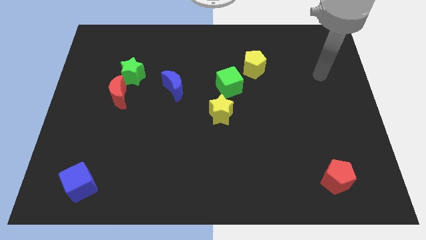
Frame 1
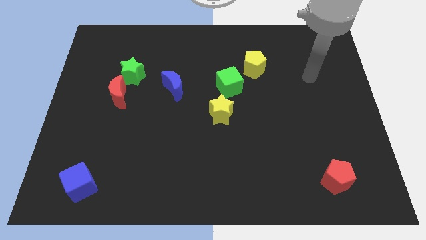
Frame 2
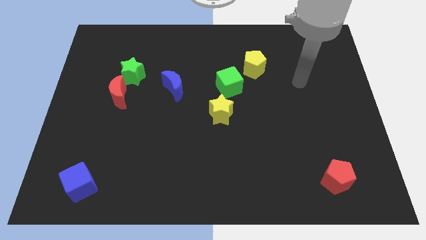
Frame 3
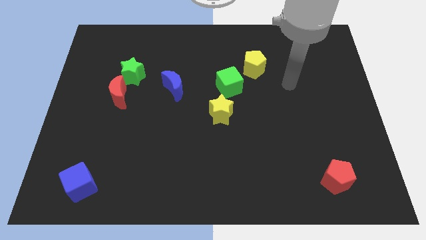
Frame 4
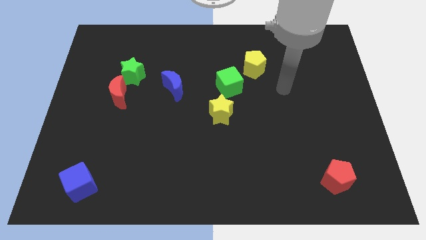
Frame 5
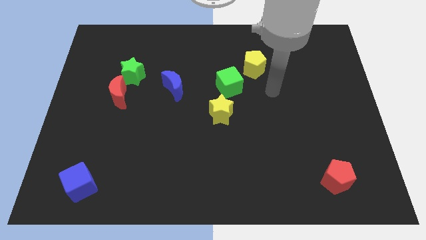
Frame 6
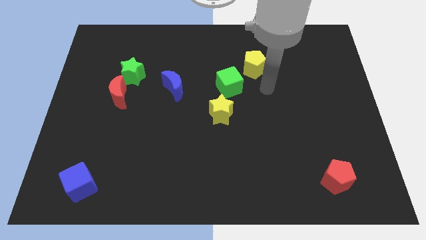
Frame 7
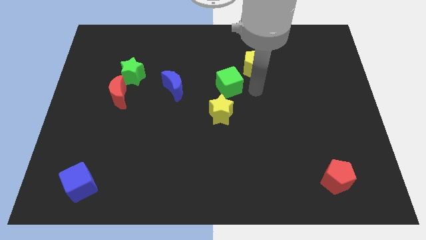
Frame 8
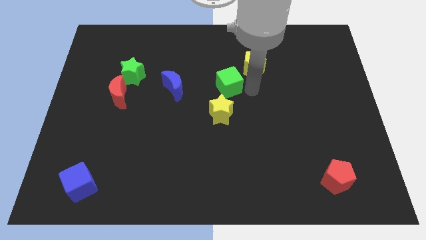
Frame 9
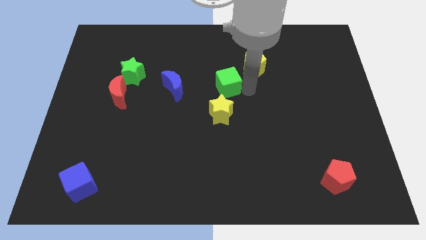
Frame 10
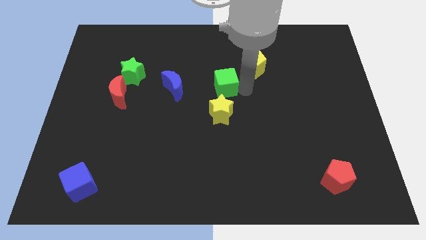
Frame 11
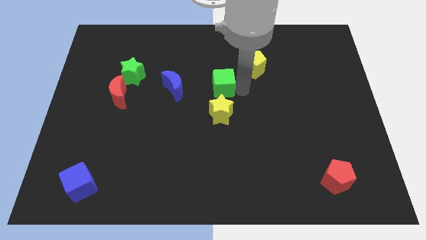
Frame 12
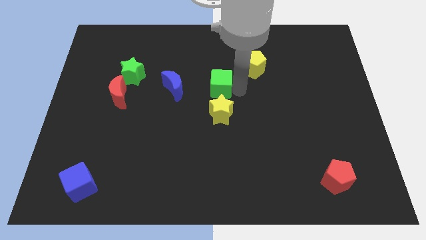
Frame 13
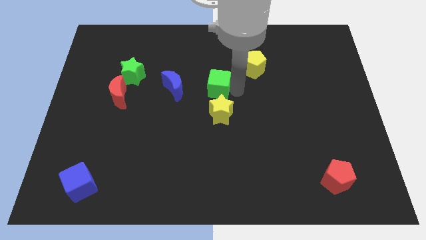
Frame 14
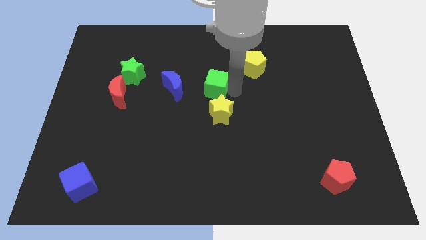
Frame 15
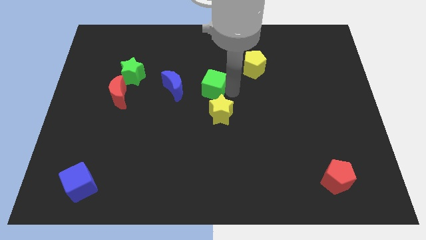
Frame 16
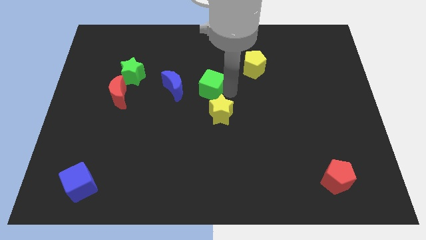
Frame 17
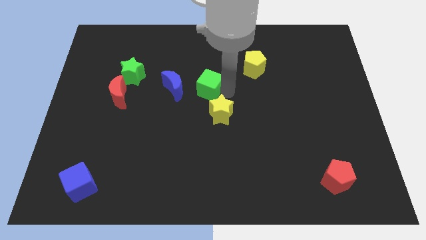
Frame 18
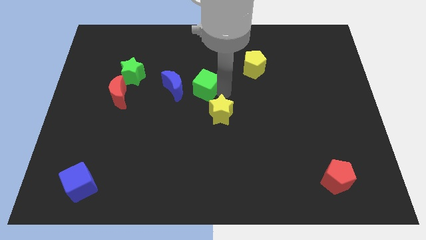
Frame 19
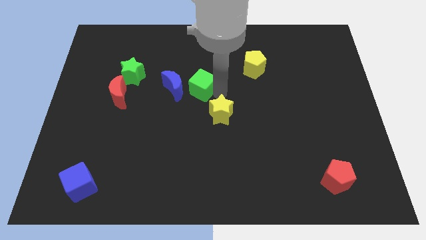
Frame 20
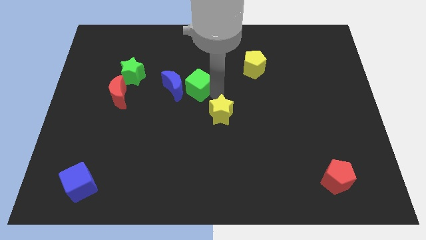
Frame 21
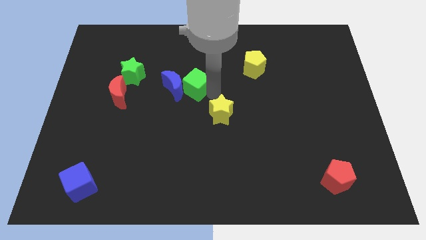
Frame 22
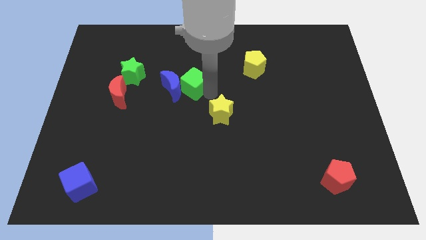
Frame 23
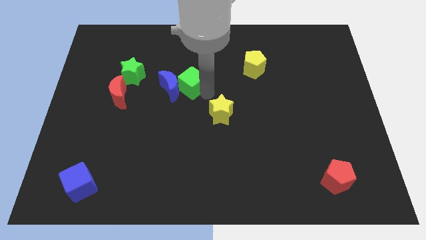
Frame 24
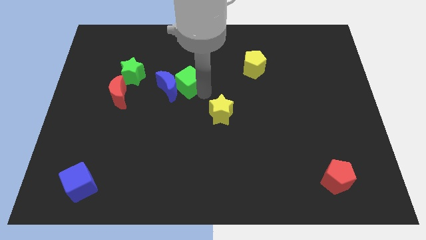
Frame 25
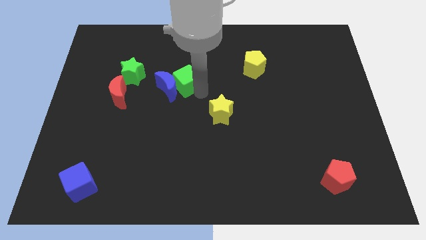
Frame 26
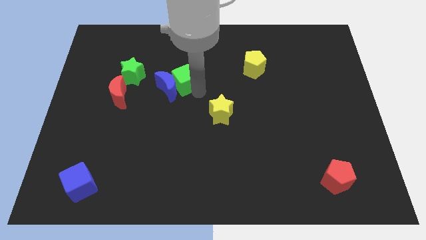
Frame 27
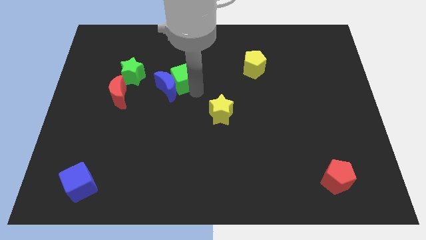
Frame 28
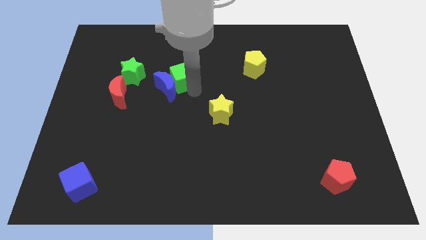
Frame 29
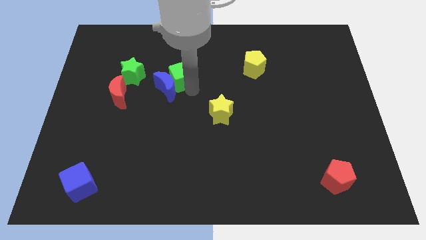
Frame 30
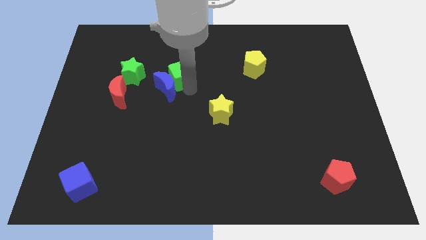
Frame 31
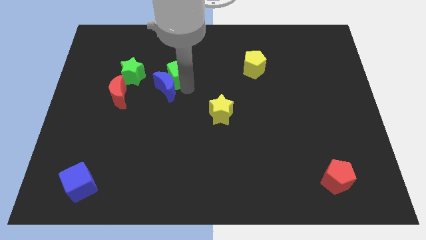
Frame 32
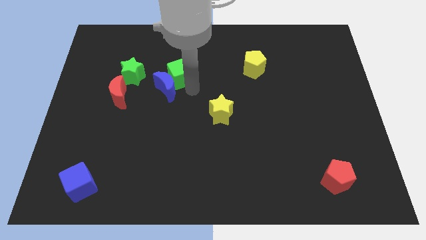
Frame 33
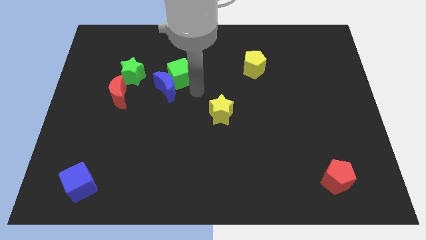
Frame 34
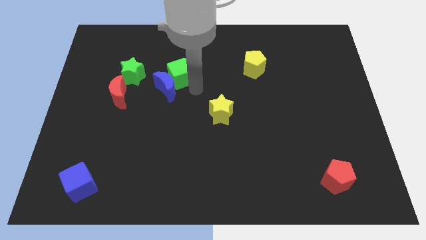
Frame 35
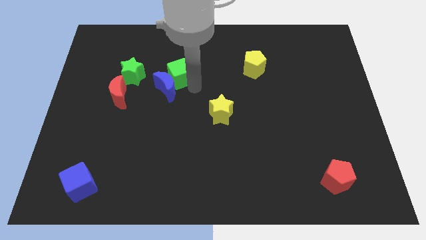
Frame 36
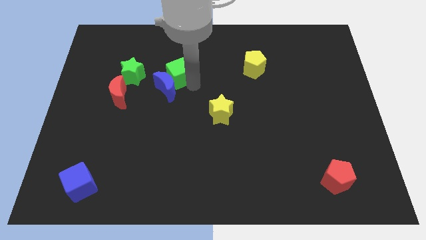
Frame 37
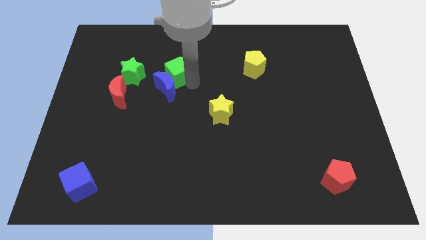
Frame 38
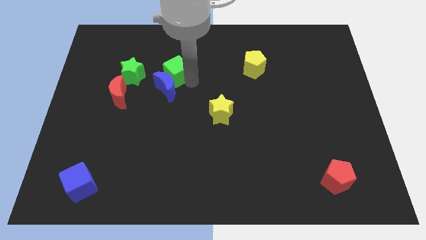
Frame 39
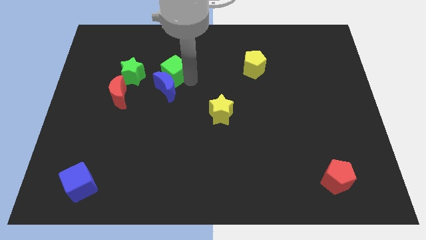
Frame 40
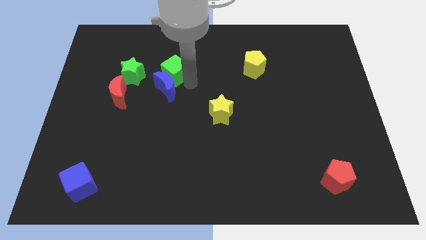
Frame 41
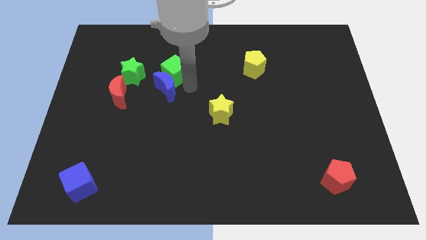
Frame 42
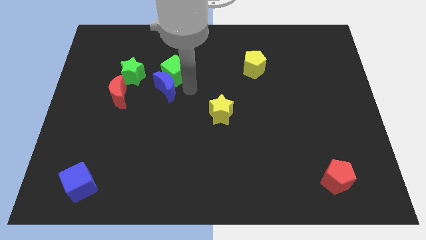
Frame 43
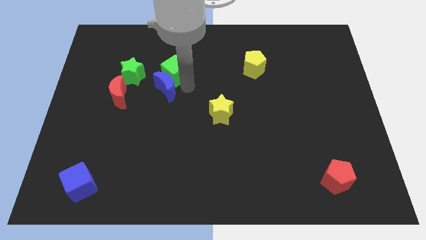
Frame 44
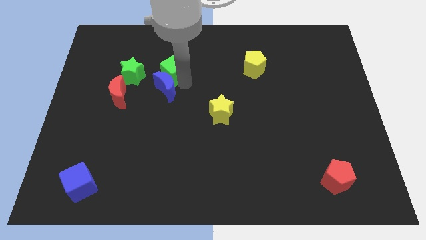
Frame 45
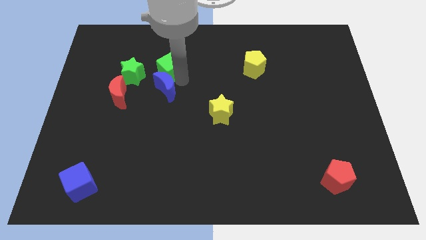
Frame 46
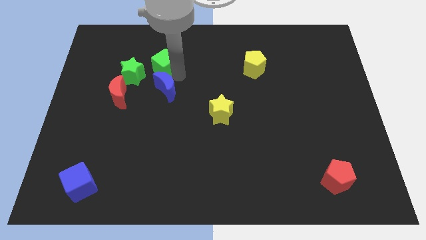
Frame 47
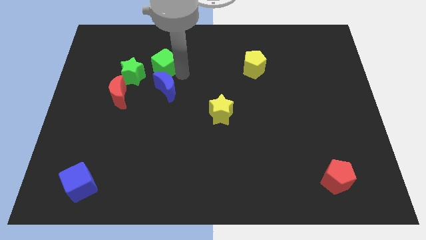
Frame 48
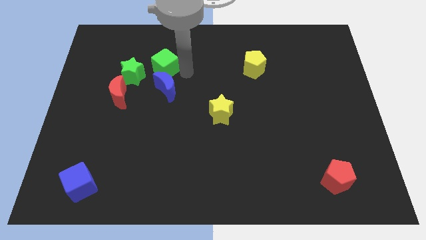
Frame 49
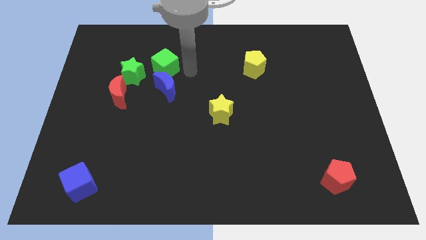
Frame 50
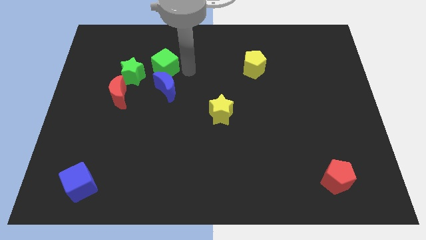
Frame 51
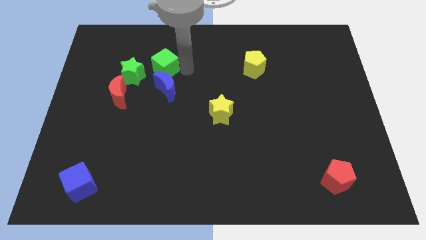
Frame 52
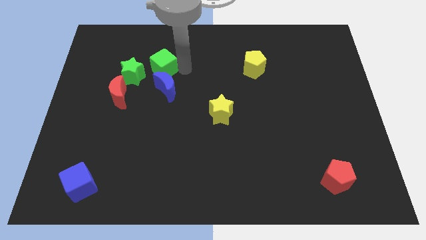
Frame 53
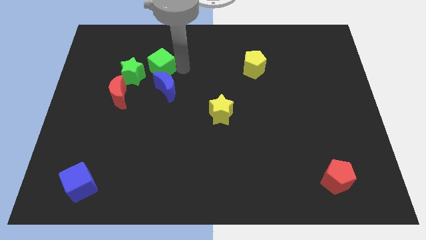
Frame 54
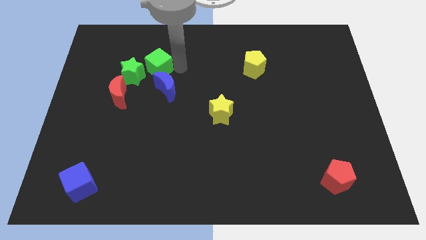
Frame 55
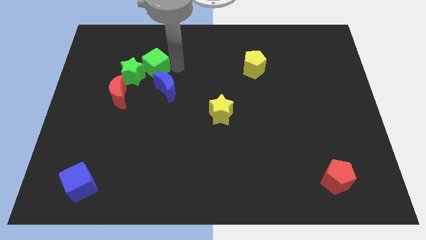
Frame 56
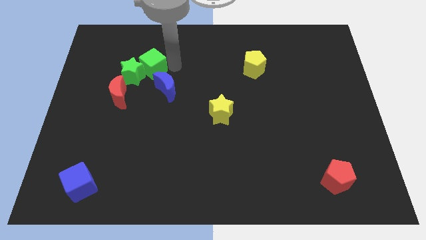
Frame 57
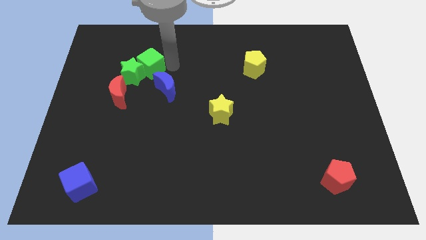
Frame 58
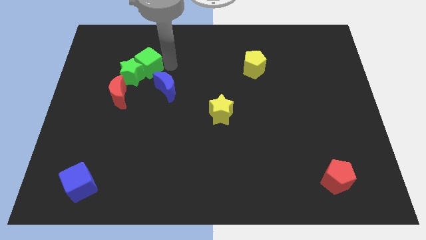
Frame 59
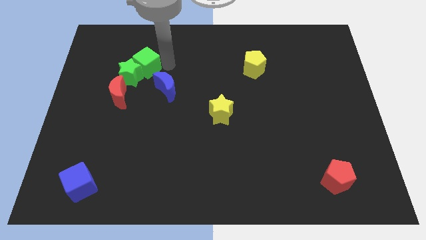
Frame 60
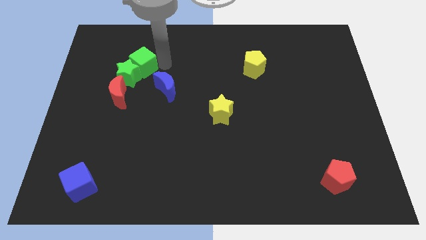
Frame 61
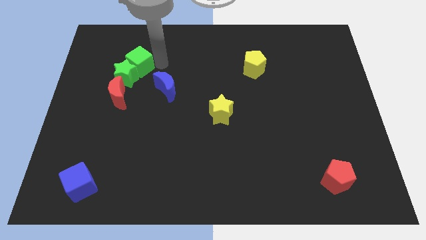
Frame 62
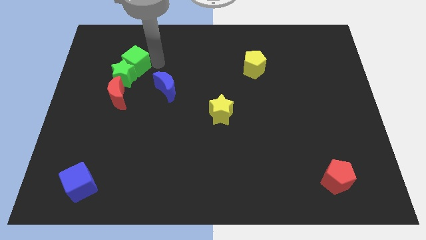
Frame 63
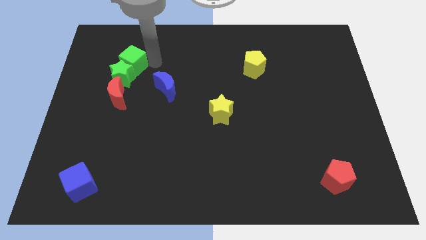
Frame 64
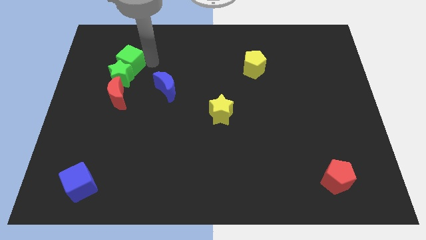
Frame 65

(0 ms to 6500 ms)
move the green cube to the top left side of the green star
